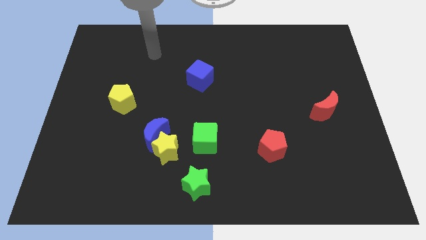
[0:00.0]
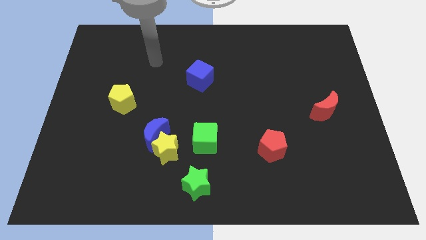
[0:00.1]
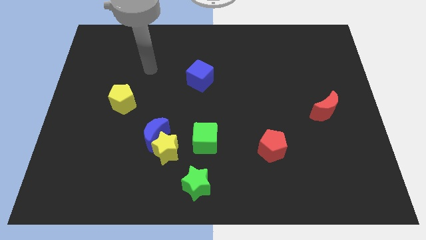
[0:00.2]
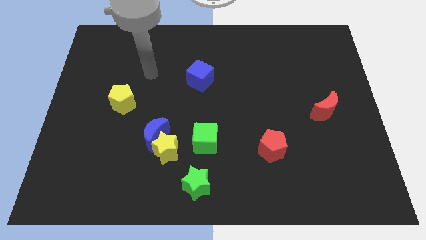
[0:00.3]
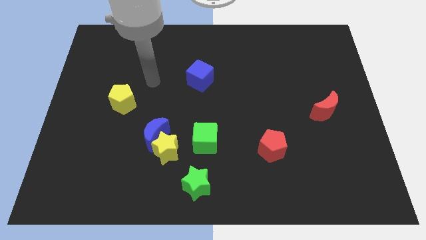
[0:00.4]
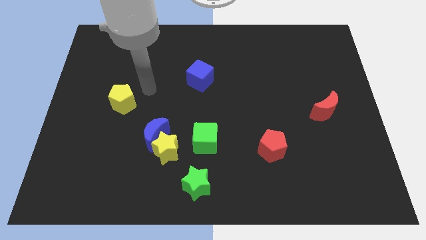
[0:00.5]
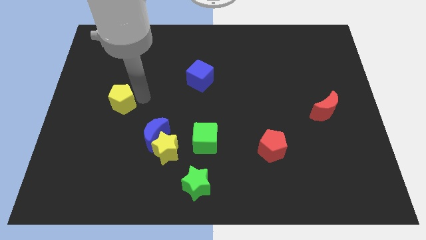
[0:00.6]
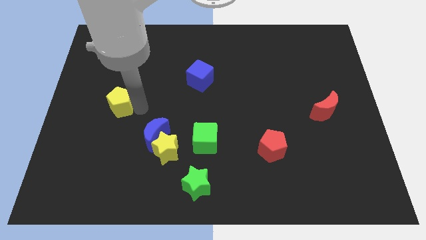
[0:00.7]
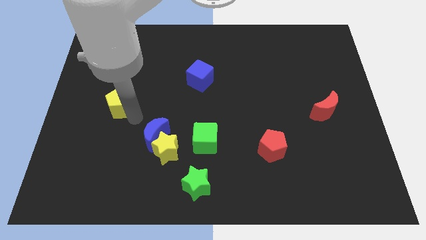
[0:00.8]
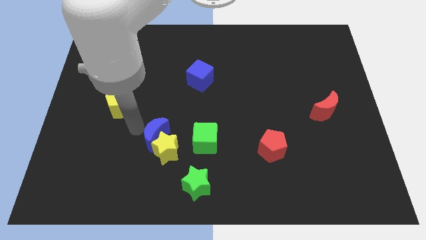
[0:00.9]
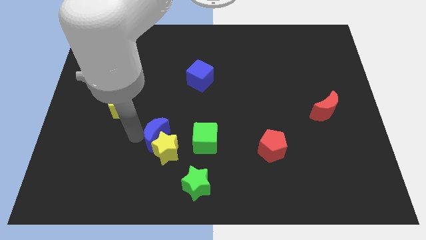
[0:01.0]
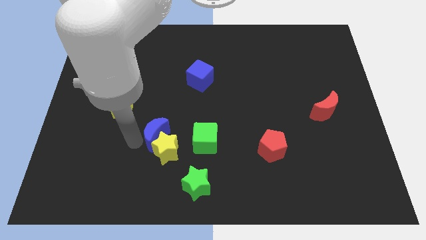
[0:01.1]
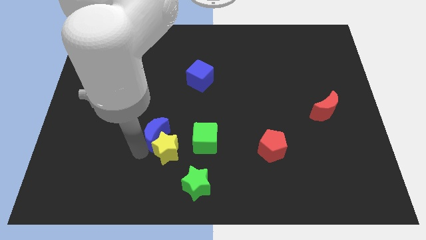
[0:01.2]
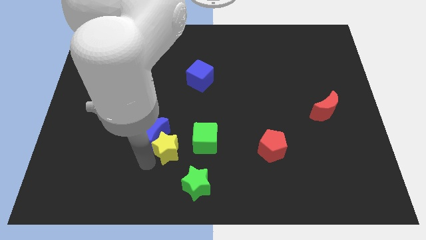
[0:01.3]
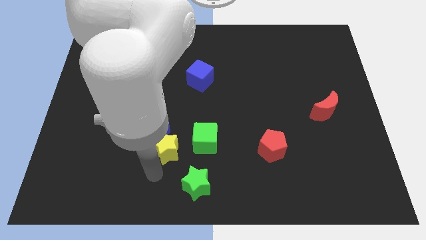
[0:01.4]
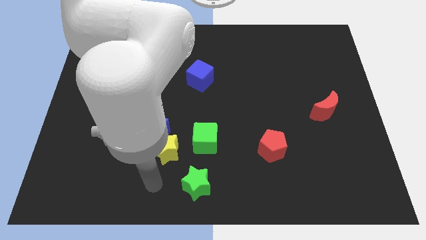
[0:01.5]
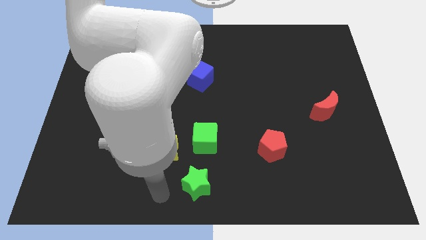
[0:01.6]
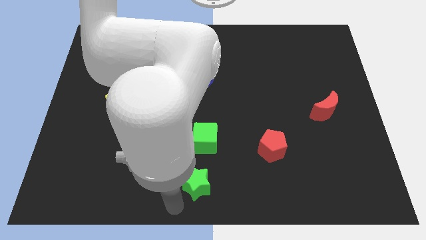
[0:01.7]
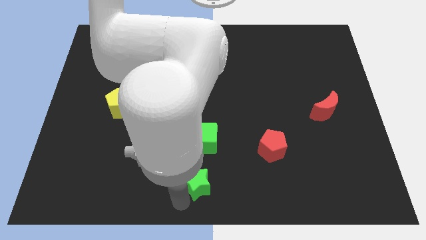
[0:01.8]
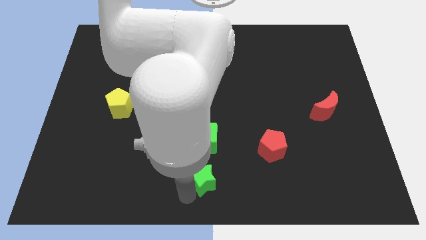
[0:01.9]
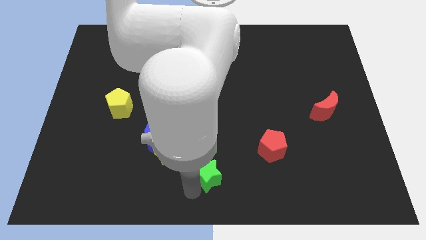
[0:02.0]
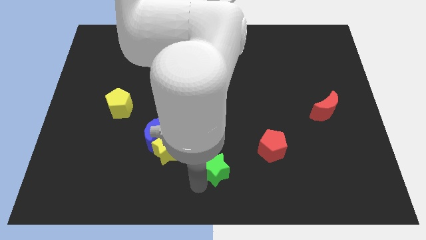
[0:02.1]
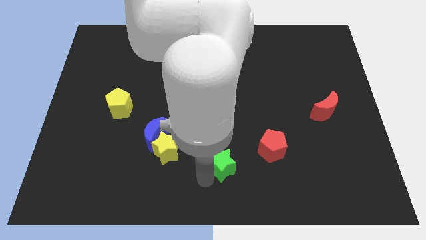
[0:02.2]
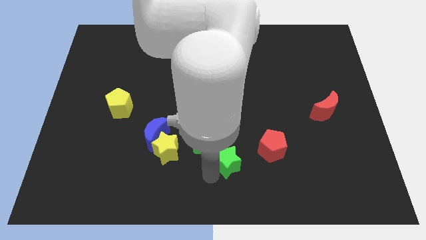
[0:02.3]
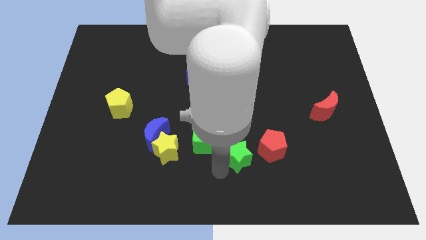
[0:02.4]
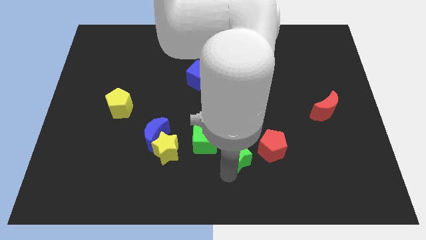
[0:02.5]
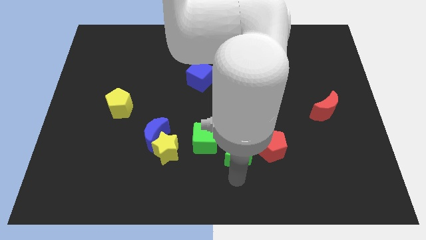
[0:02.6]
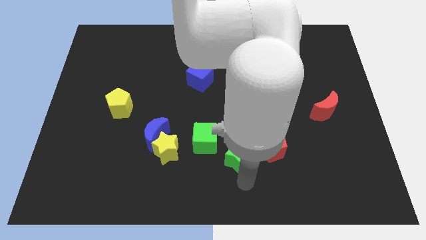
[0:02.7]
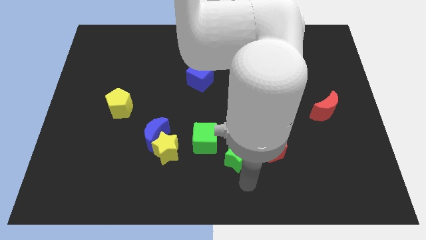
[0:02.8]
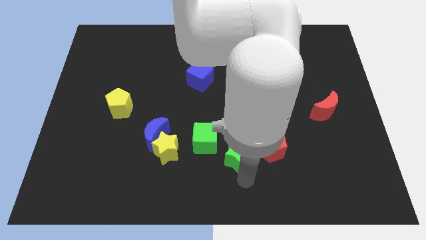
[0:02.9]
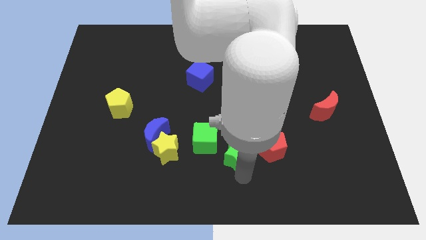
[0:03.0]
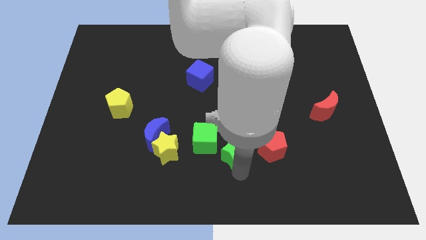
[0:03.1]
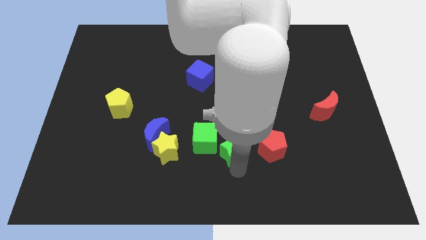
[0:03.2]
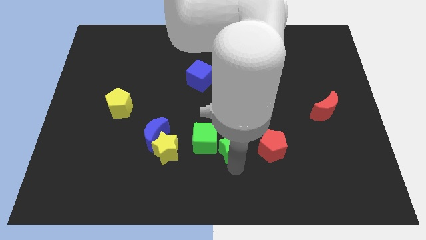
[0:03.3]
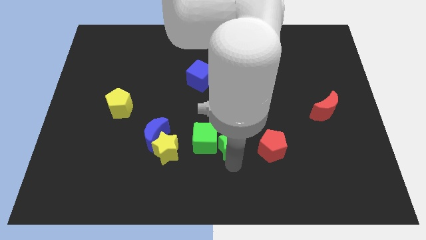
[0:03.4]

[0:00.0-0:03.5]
move the green star up a bit

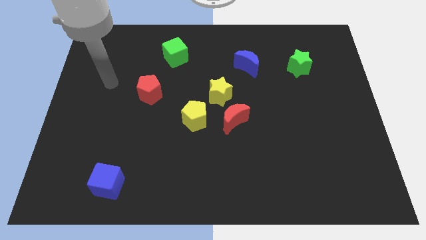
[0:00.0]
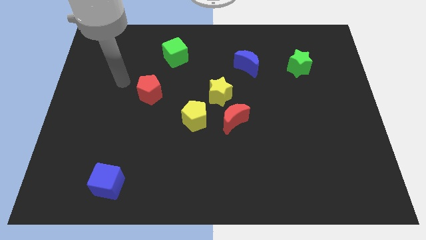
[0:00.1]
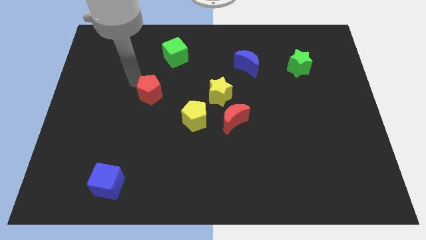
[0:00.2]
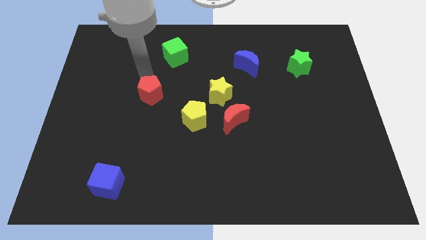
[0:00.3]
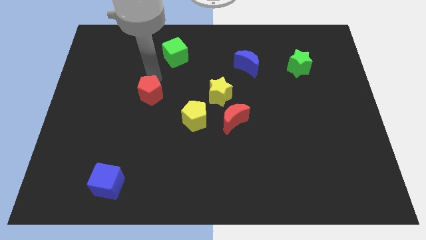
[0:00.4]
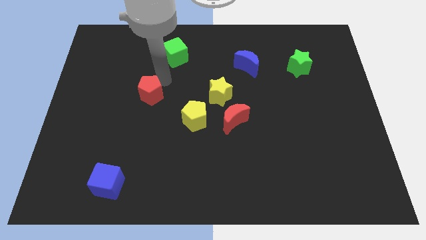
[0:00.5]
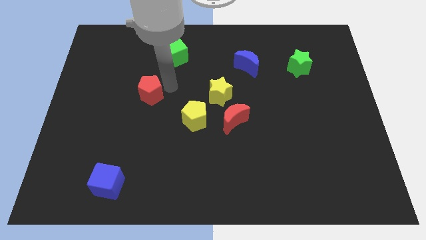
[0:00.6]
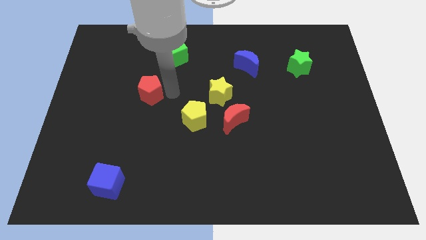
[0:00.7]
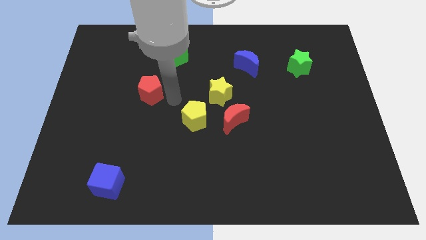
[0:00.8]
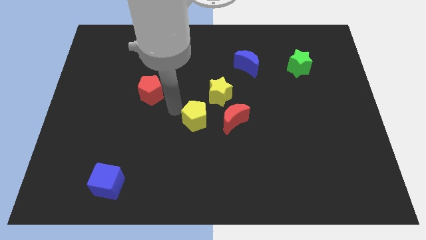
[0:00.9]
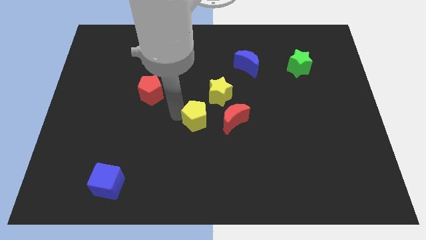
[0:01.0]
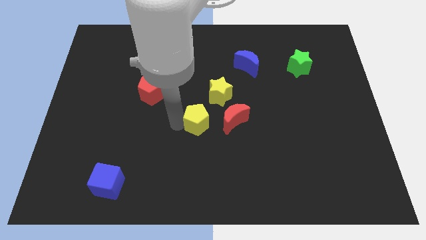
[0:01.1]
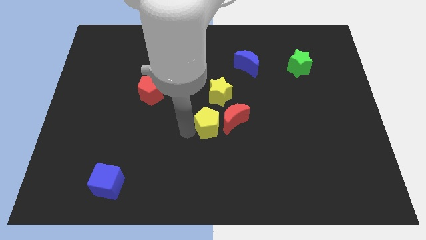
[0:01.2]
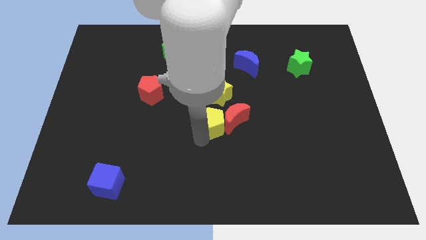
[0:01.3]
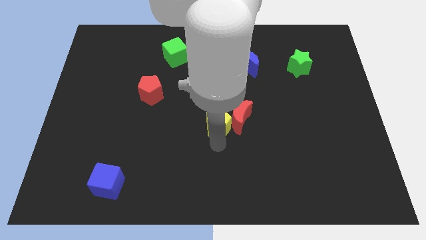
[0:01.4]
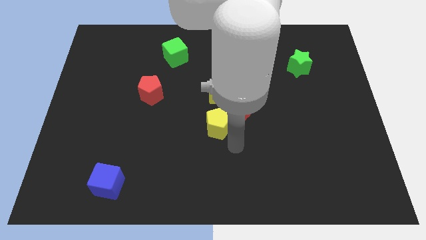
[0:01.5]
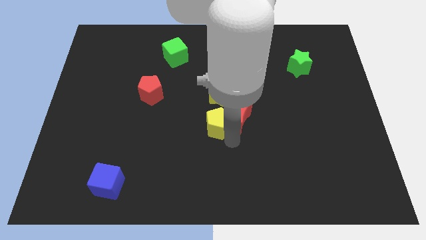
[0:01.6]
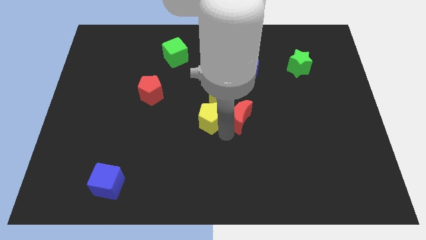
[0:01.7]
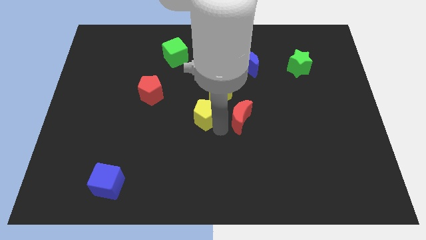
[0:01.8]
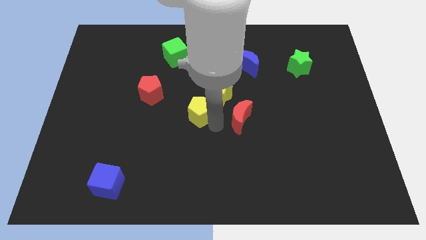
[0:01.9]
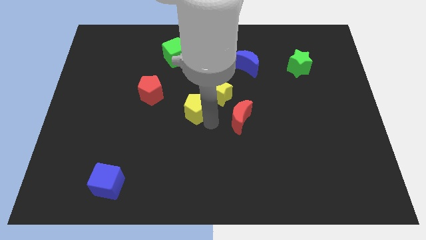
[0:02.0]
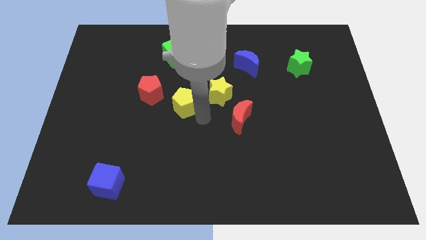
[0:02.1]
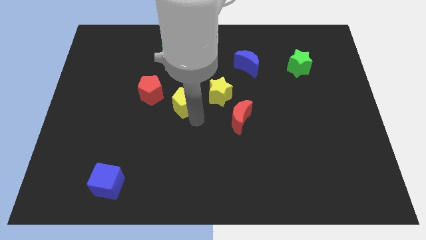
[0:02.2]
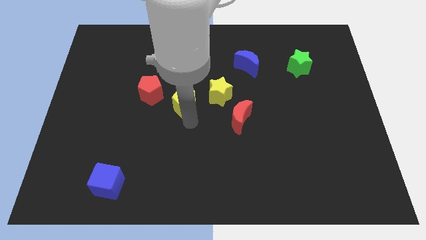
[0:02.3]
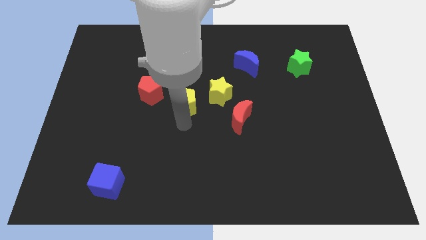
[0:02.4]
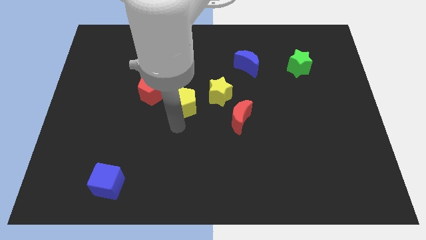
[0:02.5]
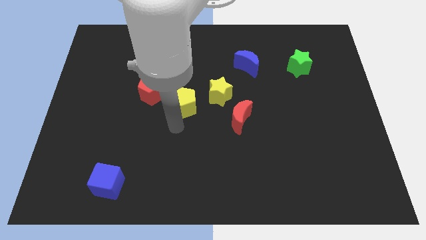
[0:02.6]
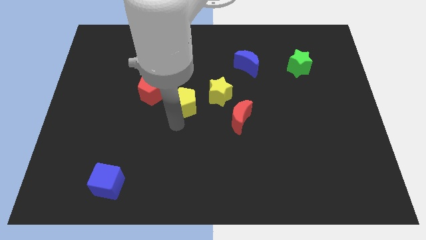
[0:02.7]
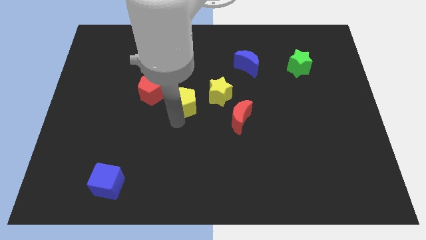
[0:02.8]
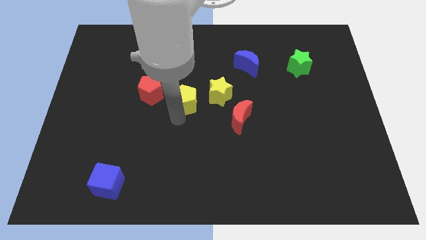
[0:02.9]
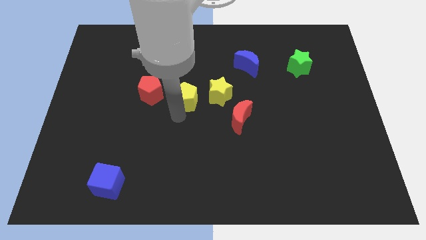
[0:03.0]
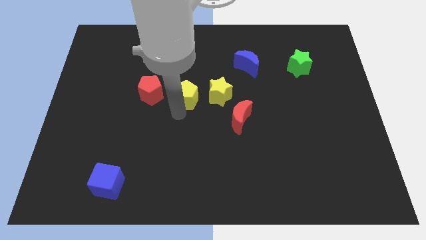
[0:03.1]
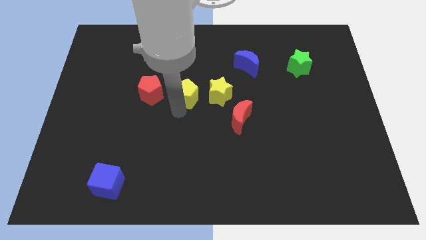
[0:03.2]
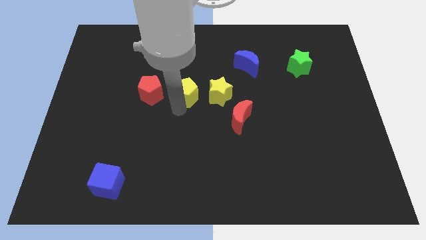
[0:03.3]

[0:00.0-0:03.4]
push the yellow pentagon a bit upwards

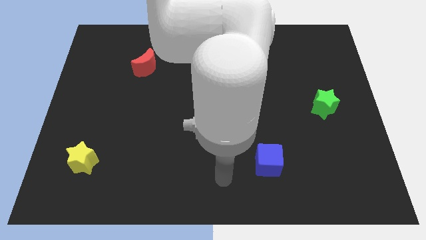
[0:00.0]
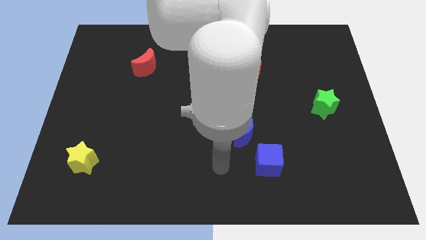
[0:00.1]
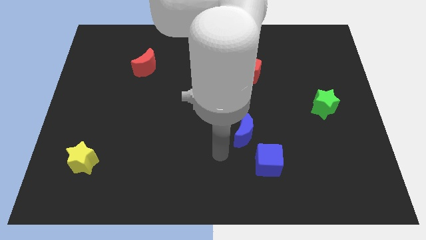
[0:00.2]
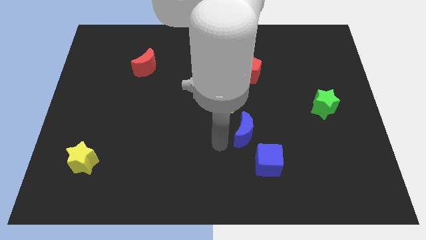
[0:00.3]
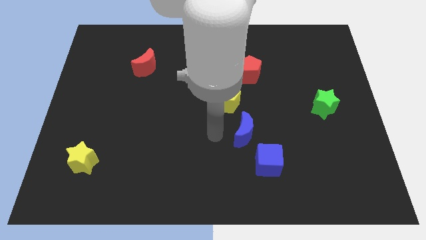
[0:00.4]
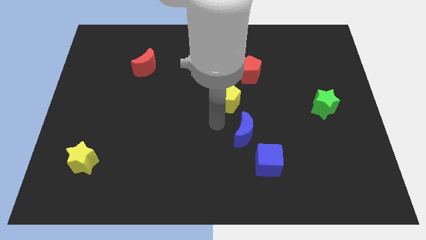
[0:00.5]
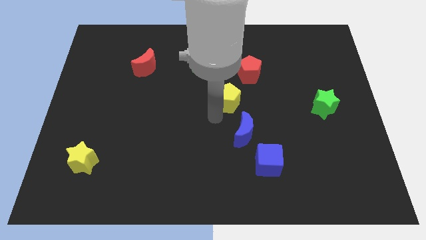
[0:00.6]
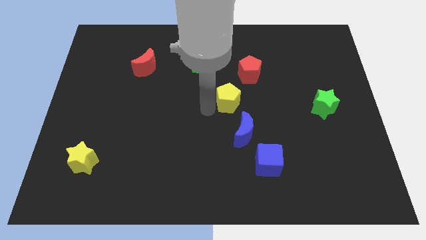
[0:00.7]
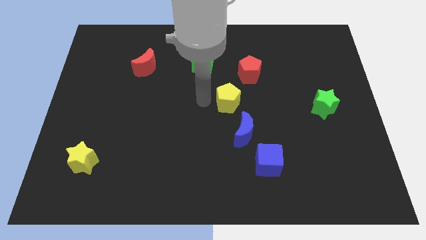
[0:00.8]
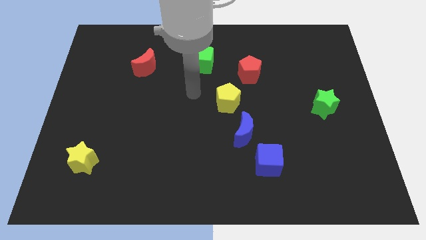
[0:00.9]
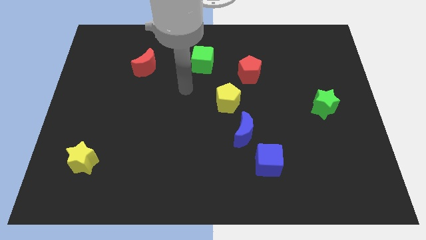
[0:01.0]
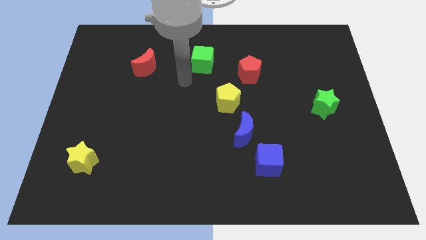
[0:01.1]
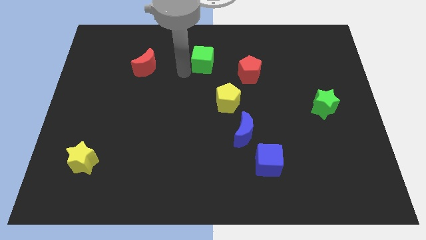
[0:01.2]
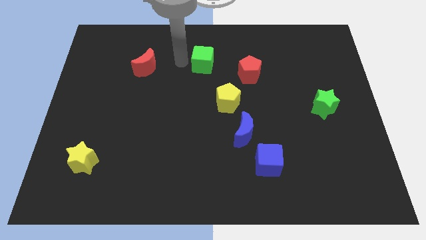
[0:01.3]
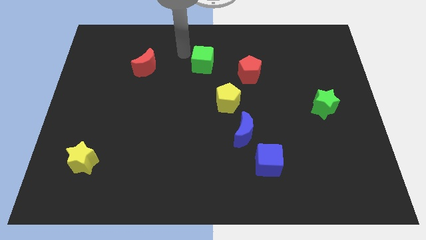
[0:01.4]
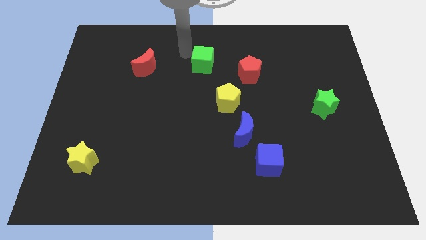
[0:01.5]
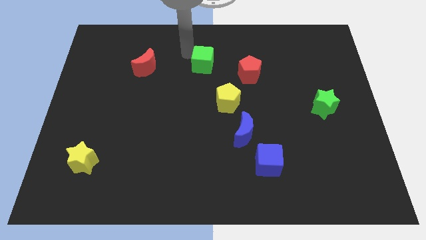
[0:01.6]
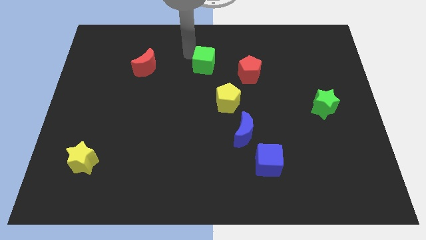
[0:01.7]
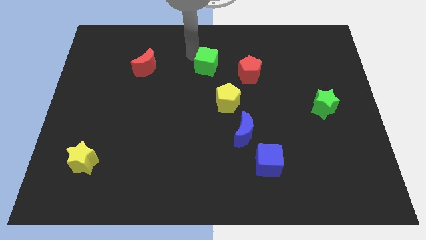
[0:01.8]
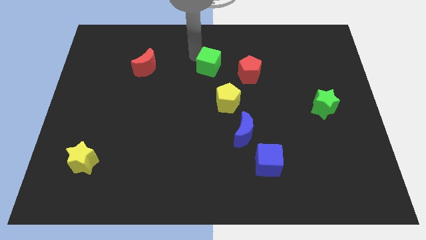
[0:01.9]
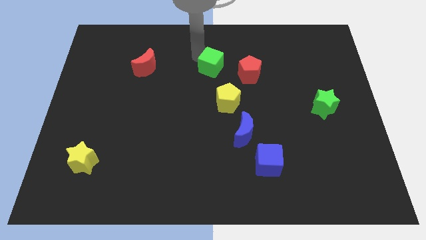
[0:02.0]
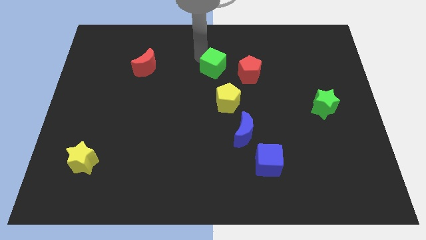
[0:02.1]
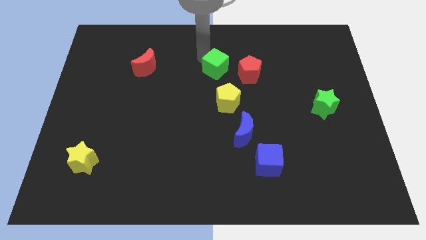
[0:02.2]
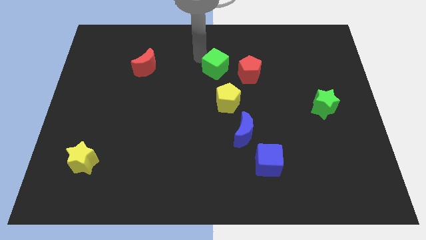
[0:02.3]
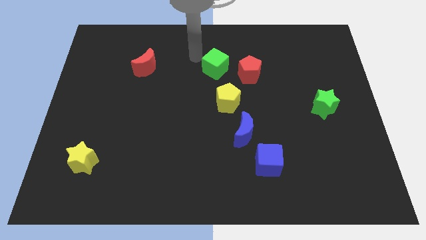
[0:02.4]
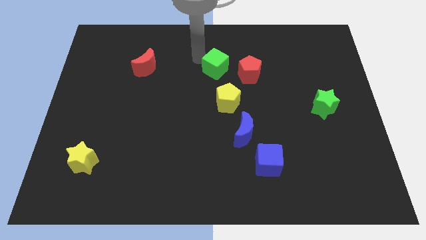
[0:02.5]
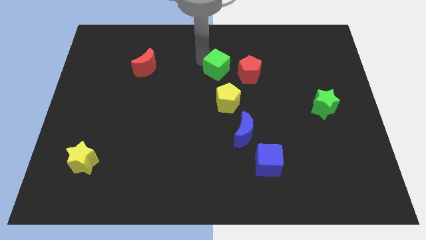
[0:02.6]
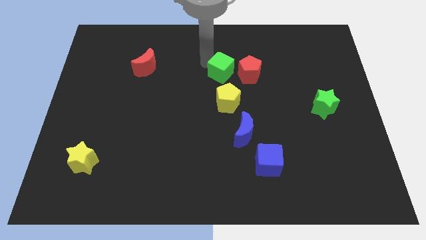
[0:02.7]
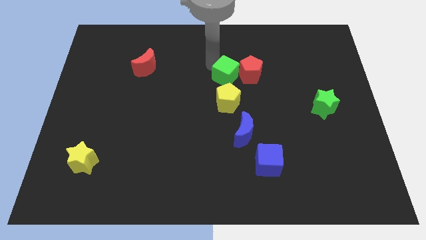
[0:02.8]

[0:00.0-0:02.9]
move the green cube downwards and to the right a little bit
